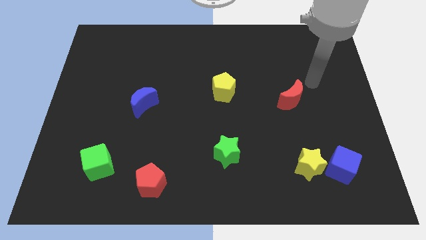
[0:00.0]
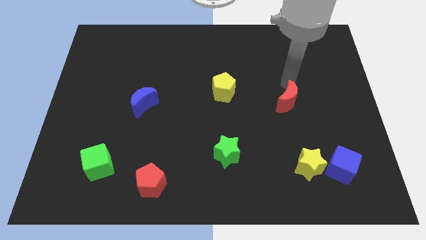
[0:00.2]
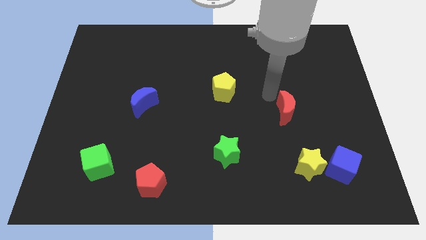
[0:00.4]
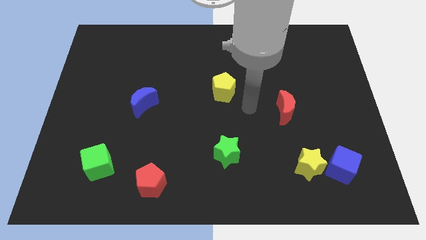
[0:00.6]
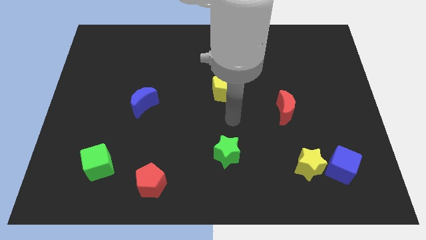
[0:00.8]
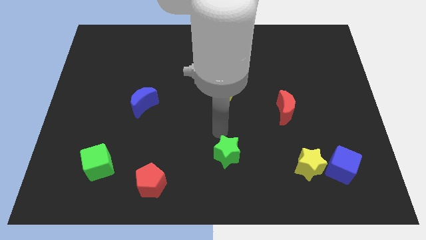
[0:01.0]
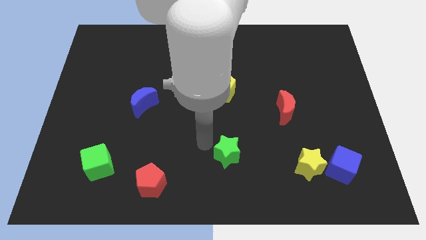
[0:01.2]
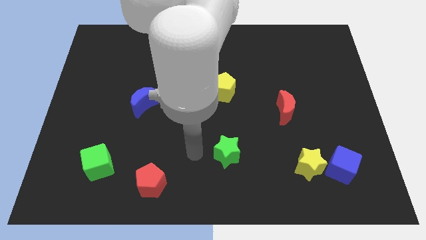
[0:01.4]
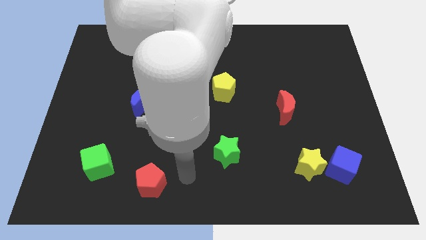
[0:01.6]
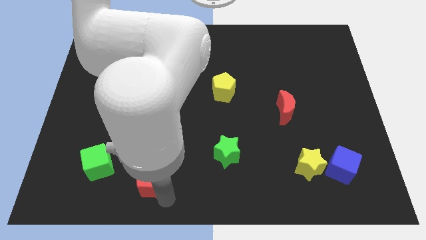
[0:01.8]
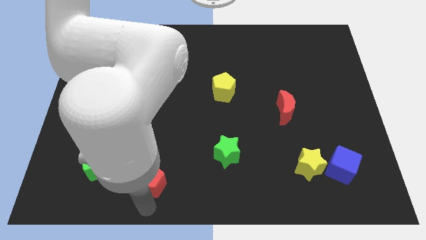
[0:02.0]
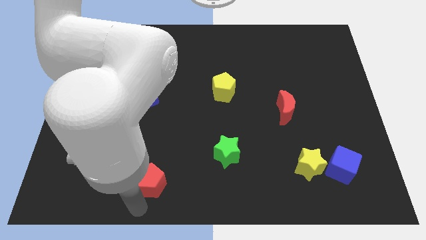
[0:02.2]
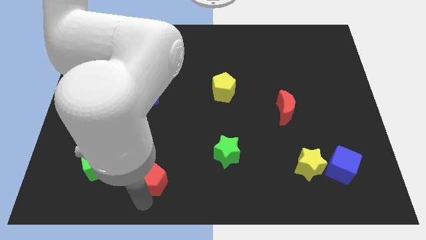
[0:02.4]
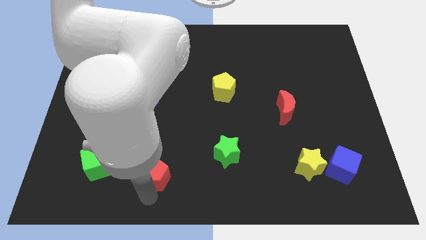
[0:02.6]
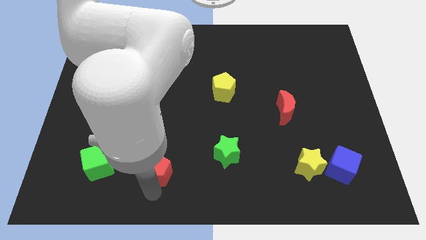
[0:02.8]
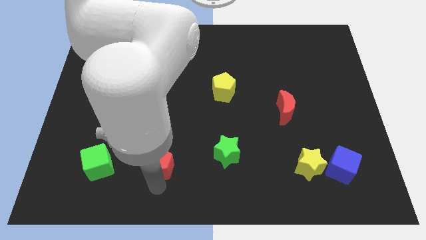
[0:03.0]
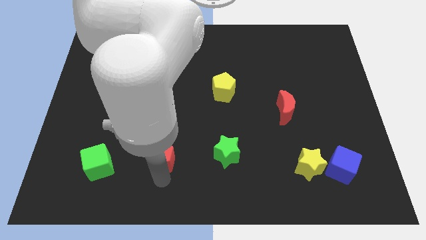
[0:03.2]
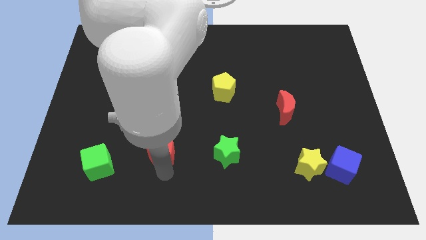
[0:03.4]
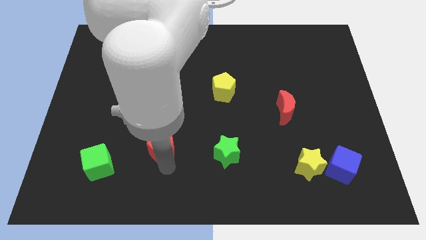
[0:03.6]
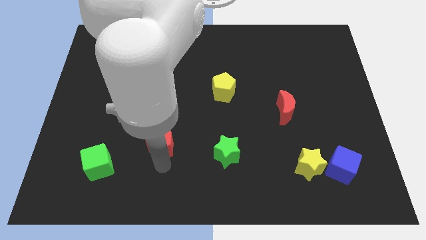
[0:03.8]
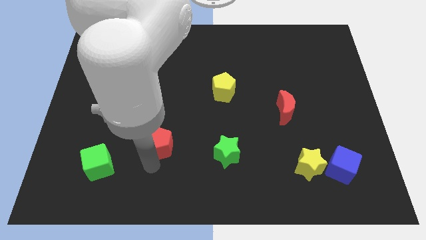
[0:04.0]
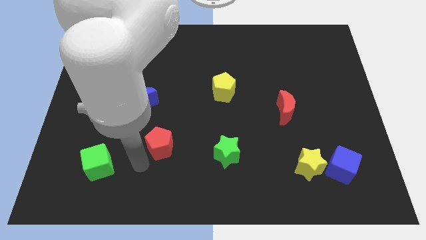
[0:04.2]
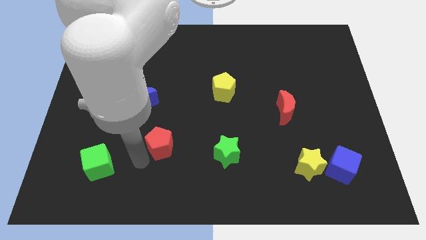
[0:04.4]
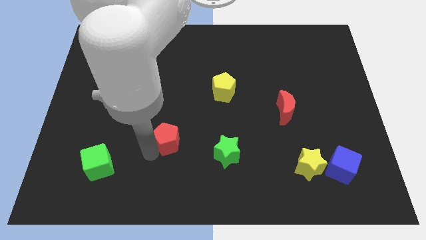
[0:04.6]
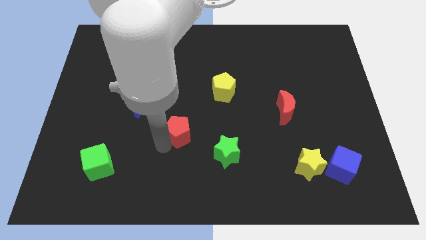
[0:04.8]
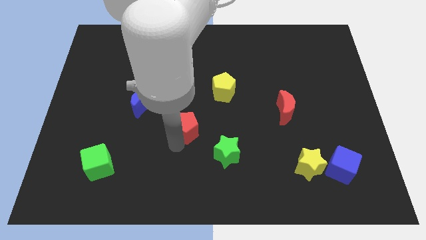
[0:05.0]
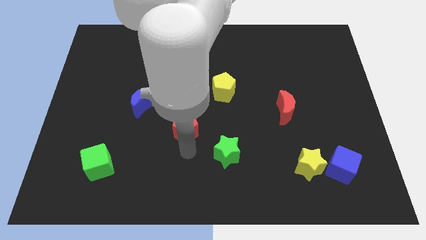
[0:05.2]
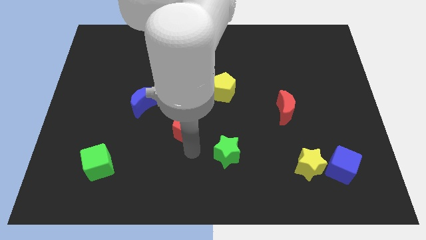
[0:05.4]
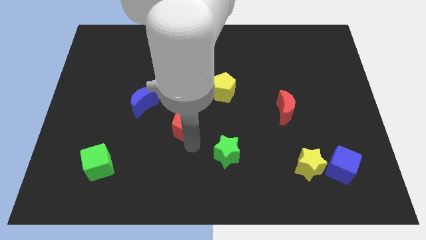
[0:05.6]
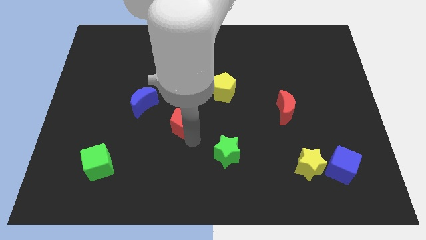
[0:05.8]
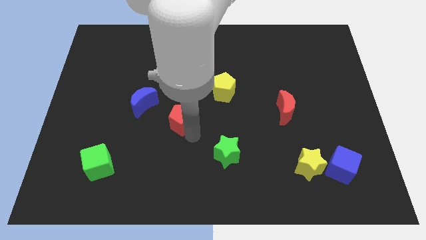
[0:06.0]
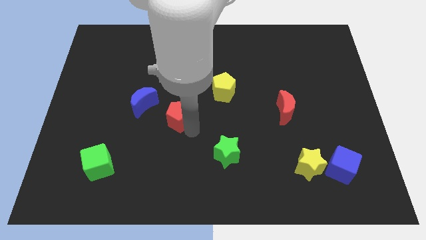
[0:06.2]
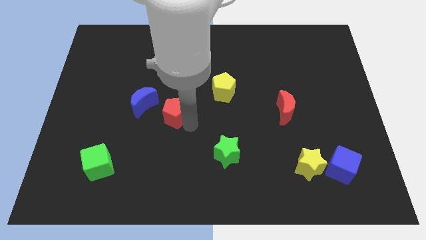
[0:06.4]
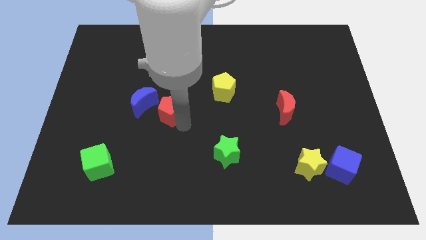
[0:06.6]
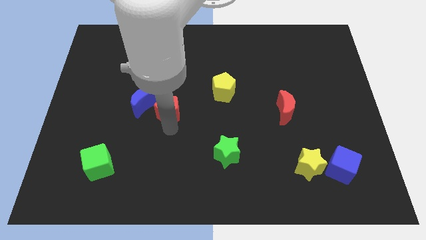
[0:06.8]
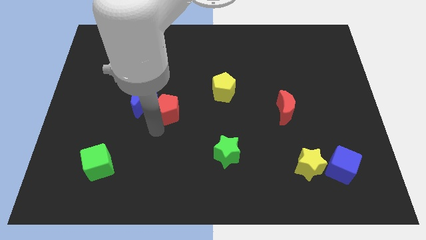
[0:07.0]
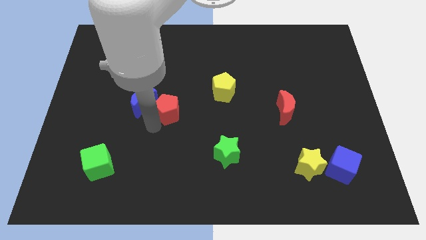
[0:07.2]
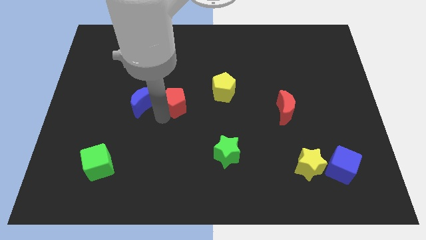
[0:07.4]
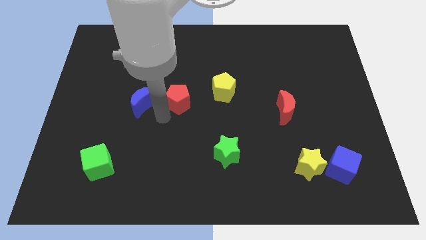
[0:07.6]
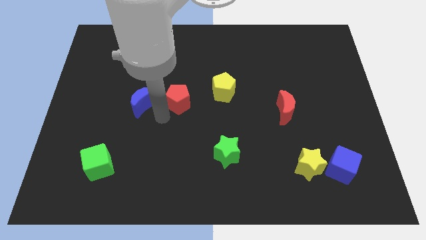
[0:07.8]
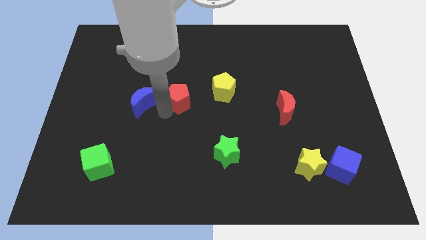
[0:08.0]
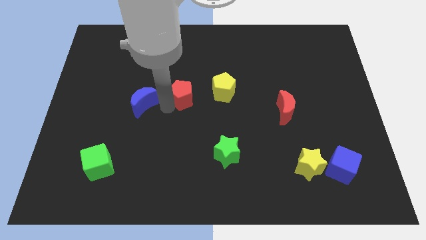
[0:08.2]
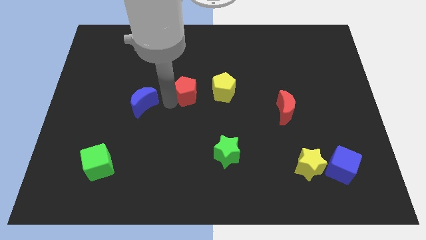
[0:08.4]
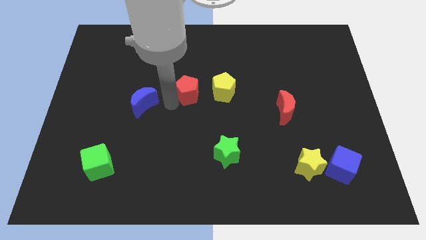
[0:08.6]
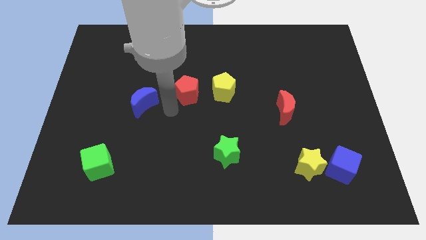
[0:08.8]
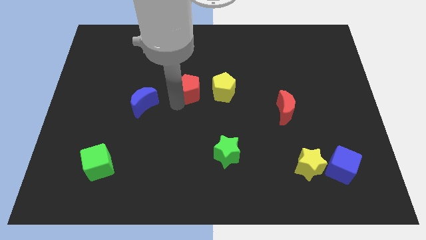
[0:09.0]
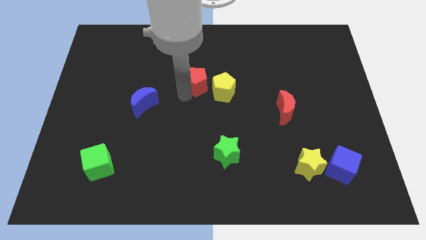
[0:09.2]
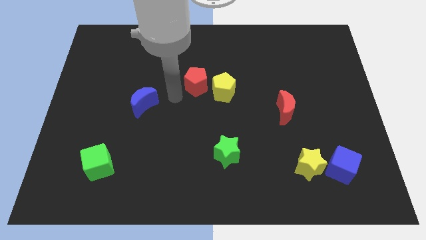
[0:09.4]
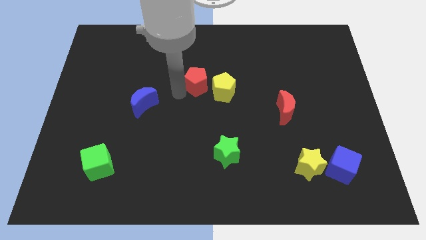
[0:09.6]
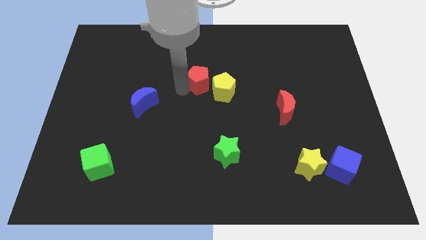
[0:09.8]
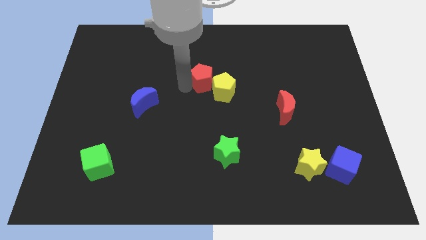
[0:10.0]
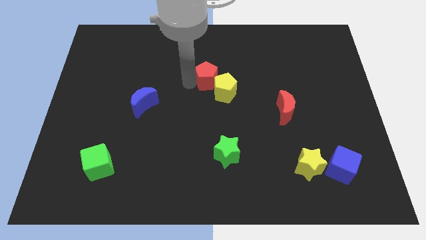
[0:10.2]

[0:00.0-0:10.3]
put the red pentagon above the yellow pentagon

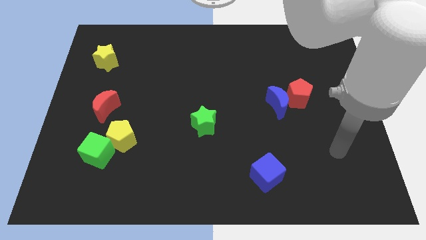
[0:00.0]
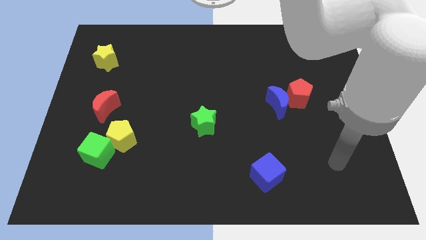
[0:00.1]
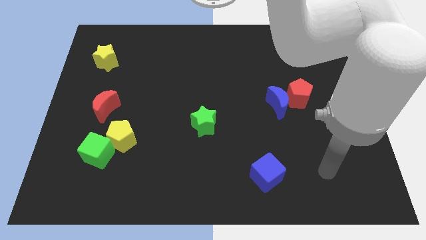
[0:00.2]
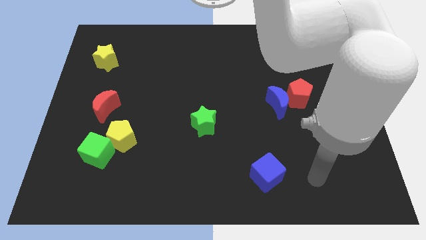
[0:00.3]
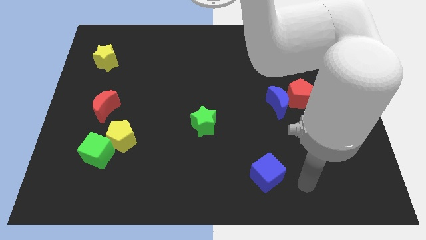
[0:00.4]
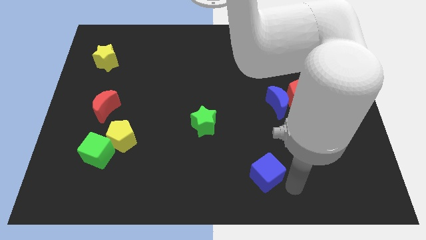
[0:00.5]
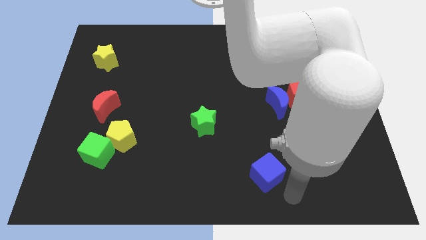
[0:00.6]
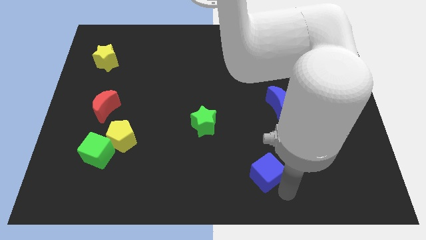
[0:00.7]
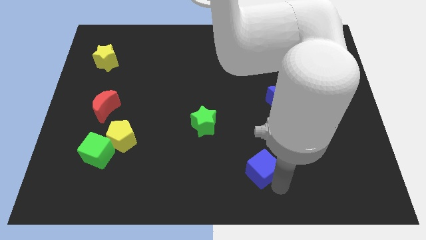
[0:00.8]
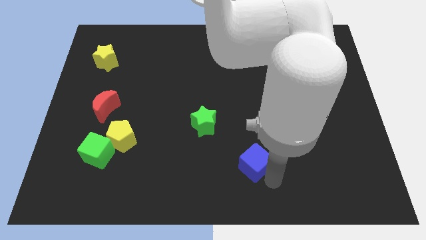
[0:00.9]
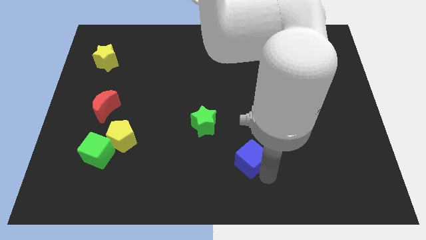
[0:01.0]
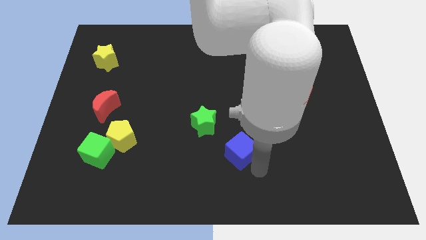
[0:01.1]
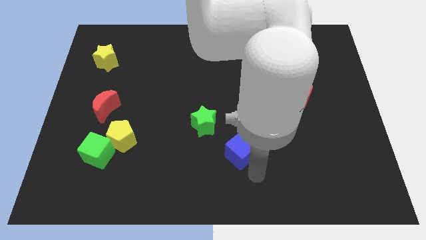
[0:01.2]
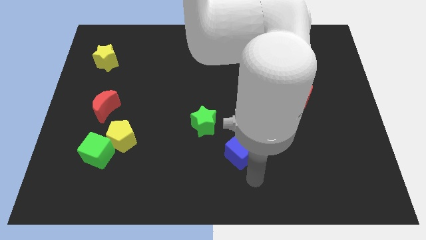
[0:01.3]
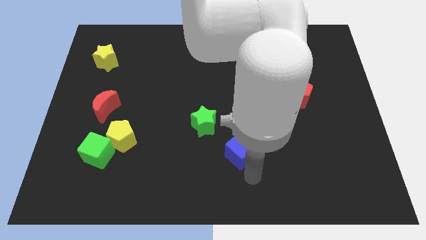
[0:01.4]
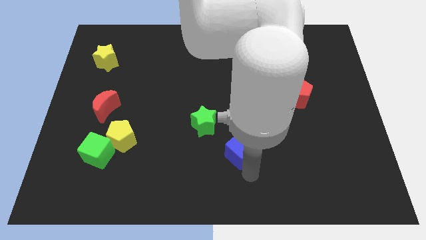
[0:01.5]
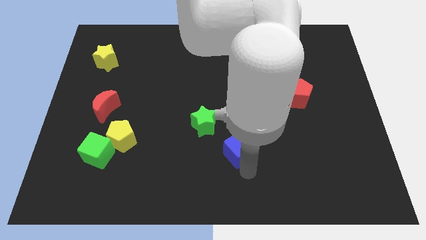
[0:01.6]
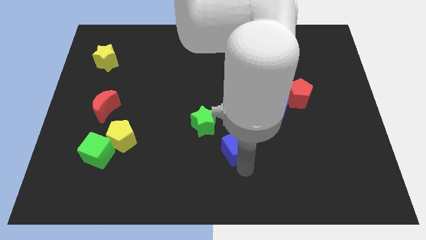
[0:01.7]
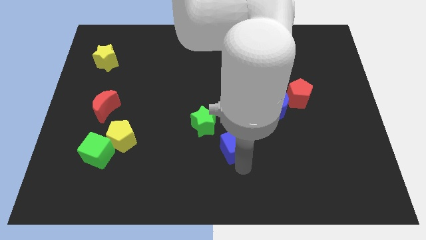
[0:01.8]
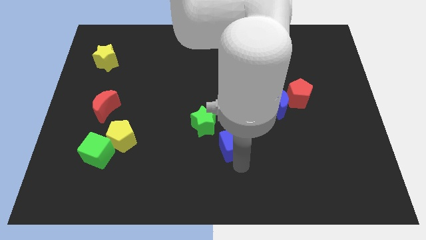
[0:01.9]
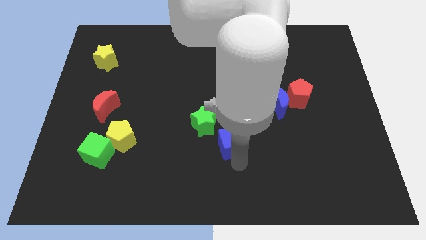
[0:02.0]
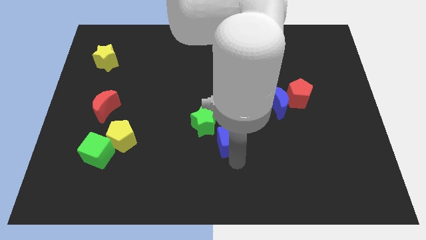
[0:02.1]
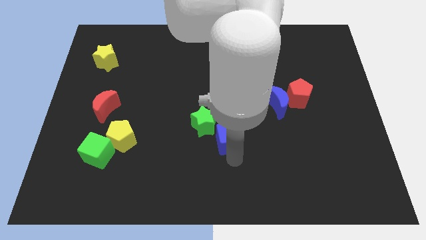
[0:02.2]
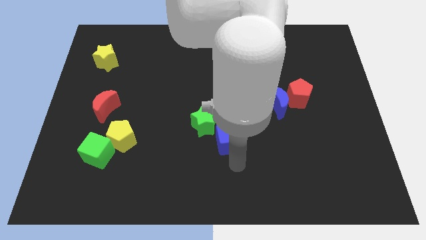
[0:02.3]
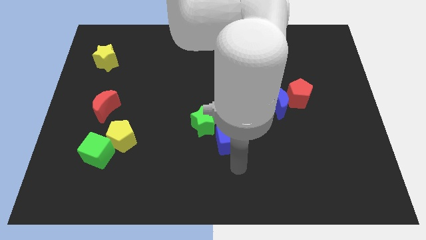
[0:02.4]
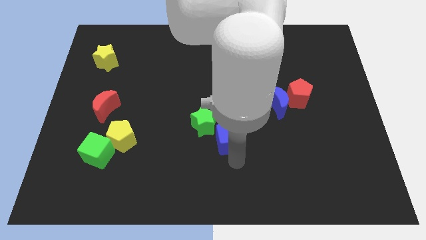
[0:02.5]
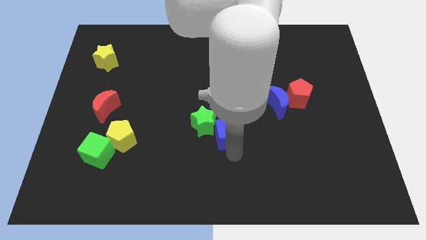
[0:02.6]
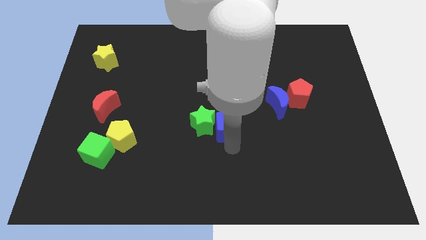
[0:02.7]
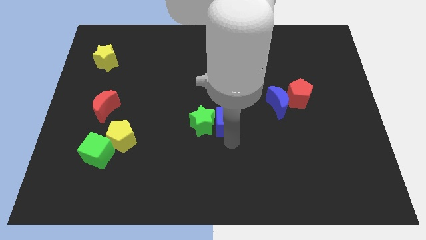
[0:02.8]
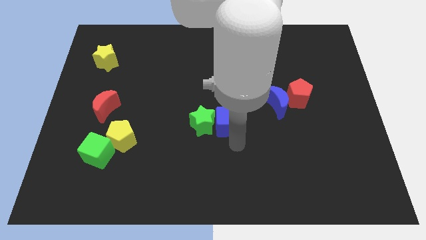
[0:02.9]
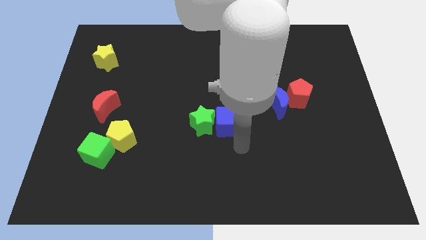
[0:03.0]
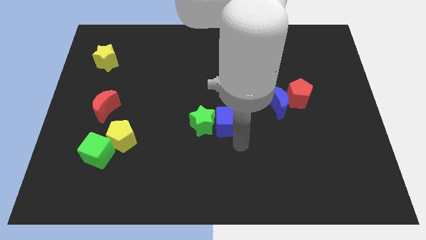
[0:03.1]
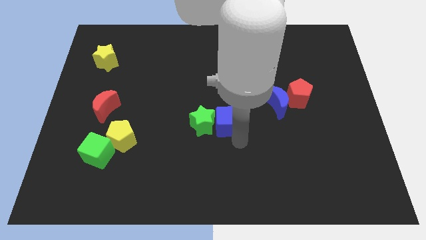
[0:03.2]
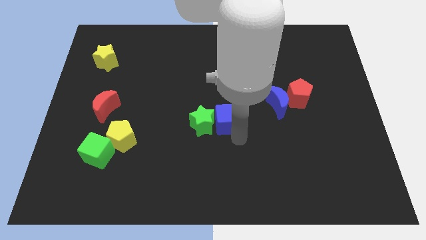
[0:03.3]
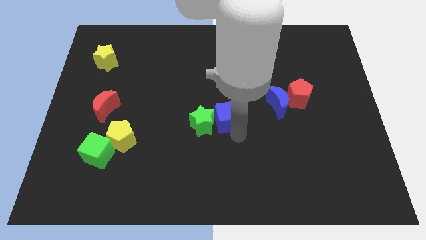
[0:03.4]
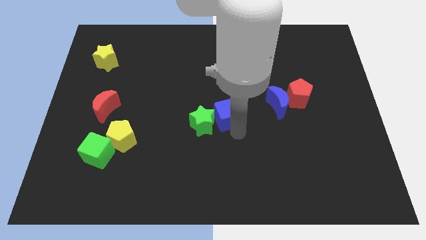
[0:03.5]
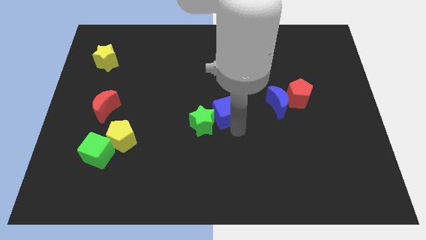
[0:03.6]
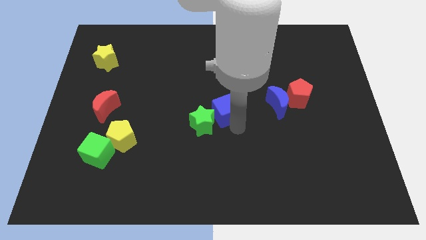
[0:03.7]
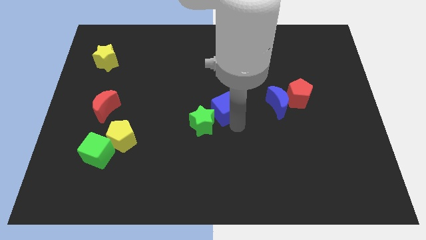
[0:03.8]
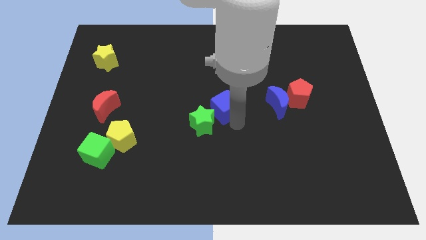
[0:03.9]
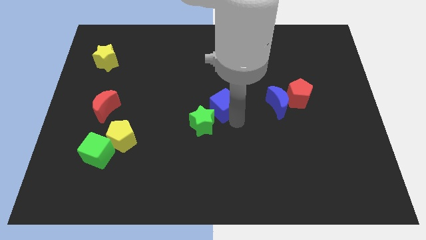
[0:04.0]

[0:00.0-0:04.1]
put the blue cube above the green star
